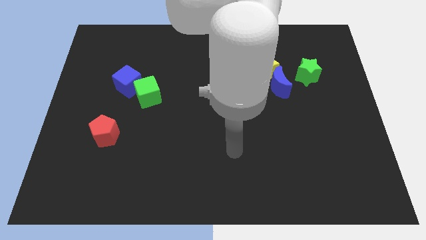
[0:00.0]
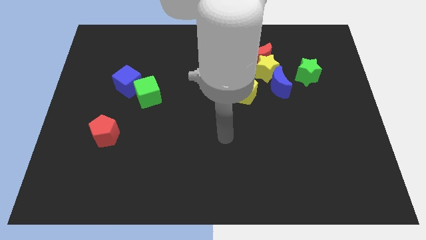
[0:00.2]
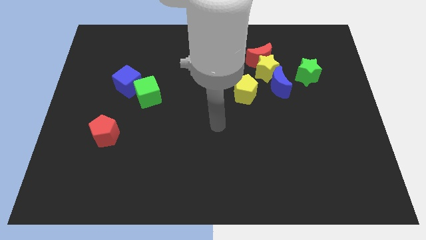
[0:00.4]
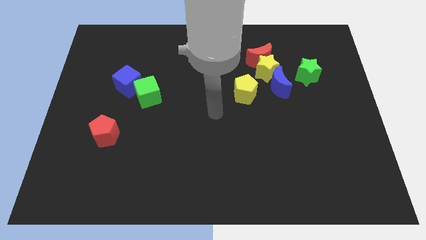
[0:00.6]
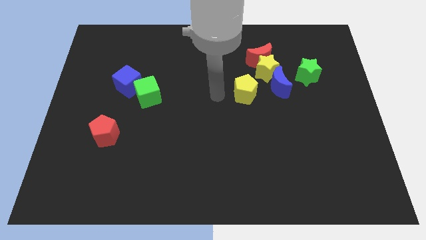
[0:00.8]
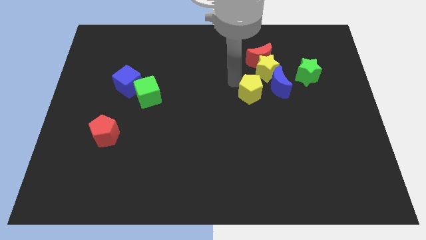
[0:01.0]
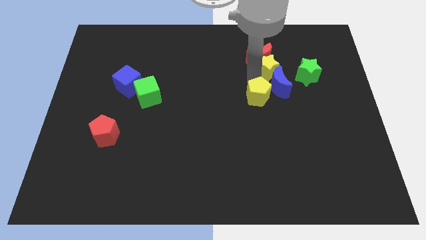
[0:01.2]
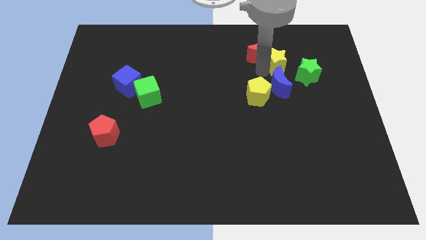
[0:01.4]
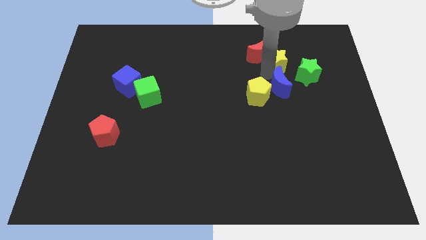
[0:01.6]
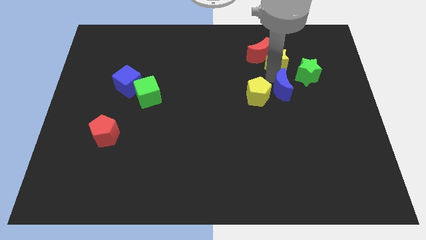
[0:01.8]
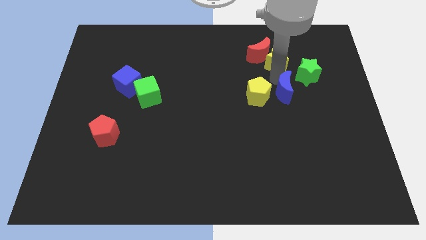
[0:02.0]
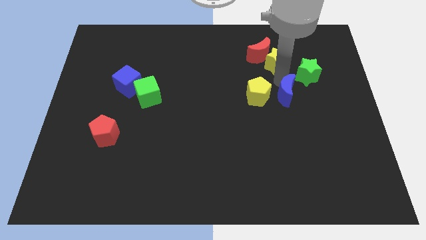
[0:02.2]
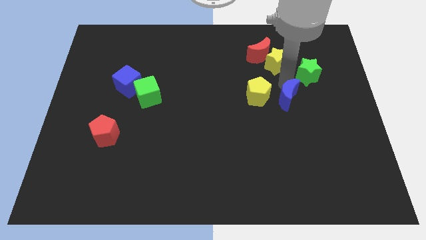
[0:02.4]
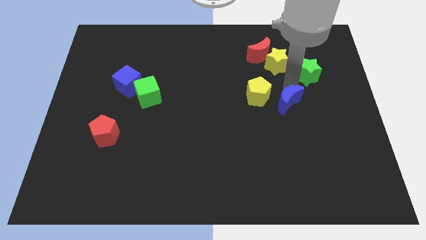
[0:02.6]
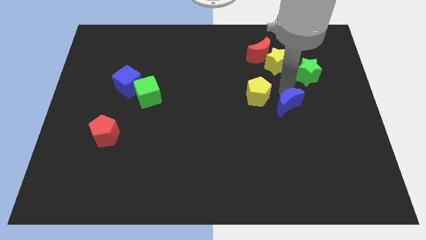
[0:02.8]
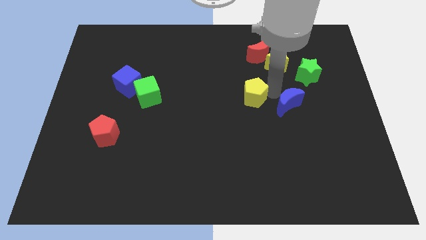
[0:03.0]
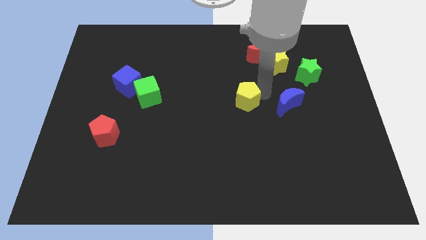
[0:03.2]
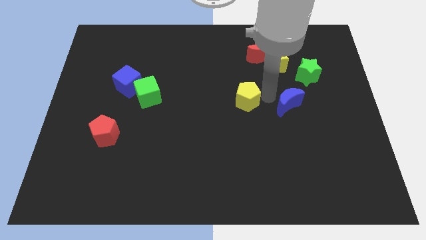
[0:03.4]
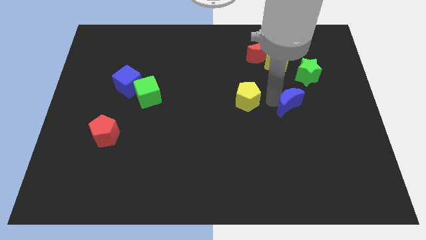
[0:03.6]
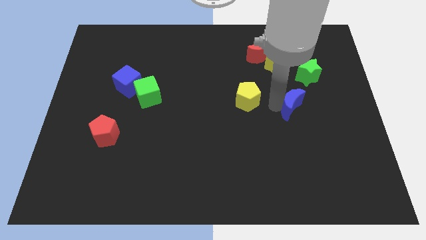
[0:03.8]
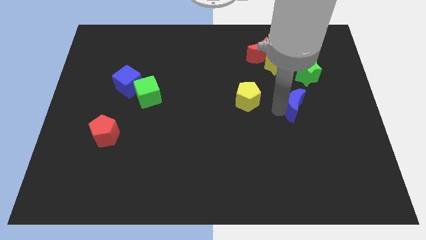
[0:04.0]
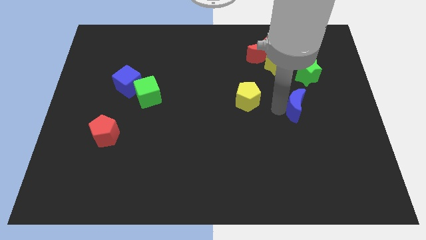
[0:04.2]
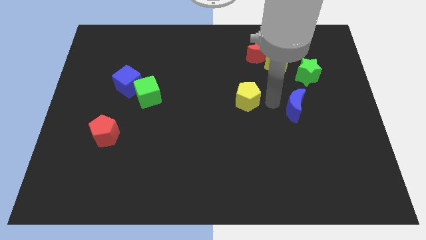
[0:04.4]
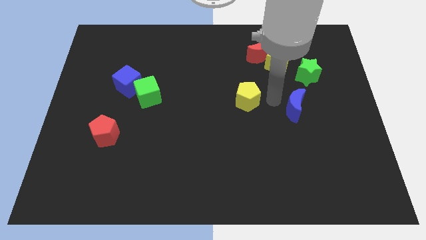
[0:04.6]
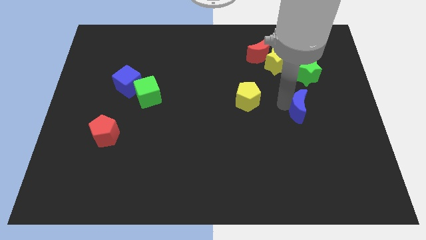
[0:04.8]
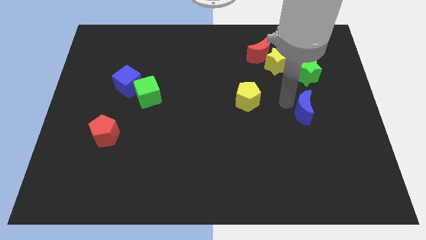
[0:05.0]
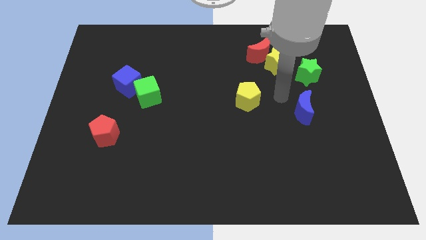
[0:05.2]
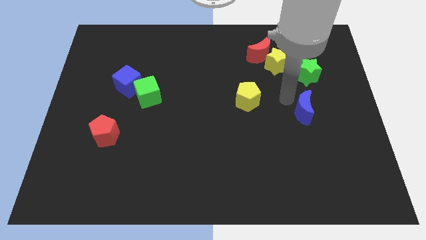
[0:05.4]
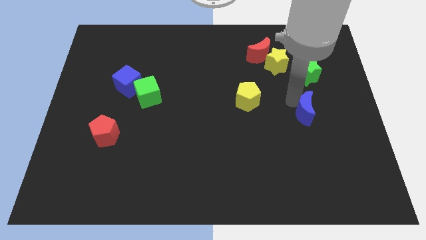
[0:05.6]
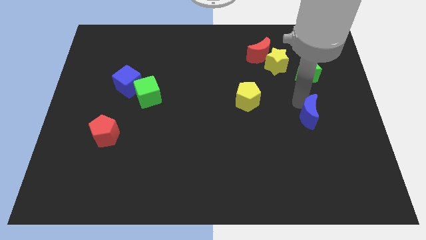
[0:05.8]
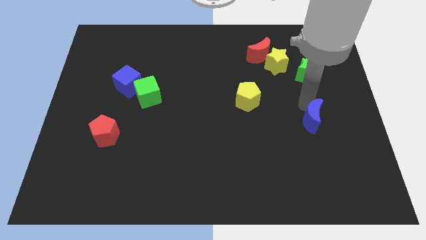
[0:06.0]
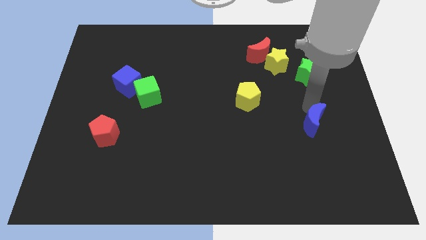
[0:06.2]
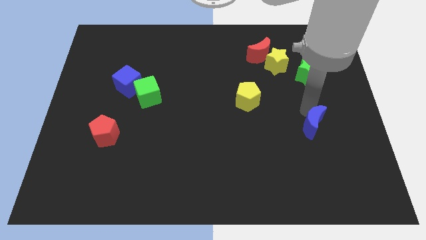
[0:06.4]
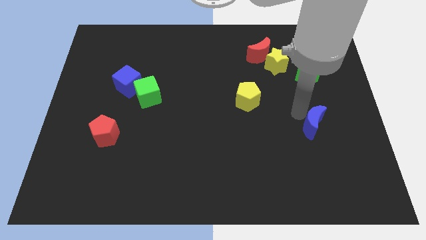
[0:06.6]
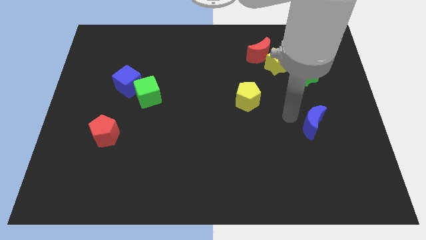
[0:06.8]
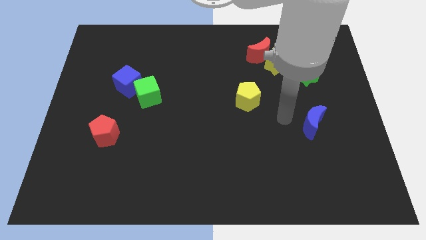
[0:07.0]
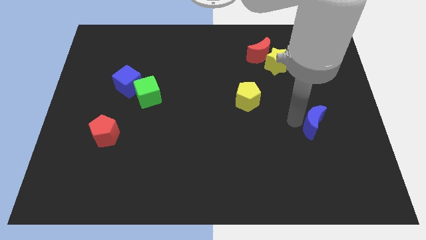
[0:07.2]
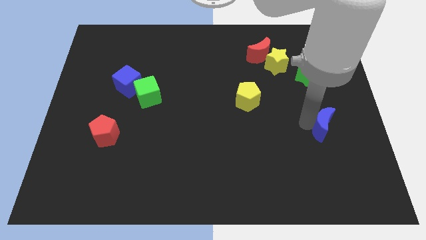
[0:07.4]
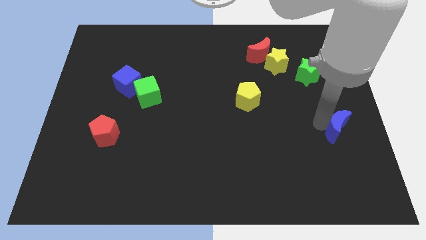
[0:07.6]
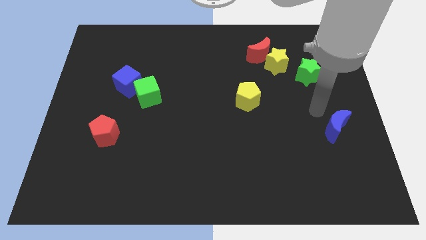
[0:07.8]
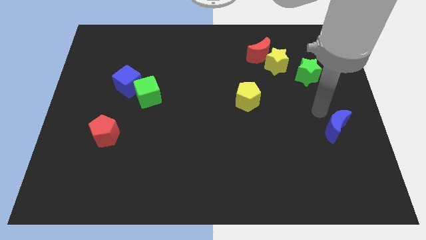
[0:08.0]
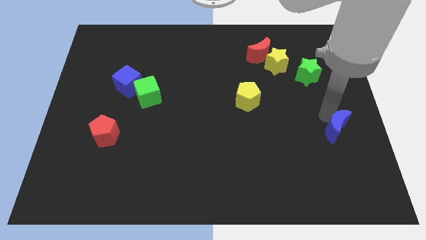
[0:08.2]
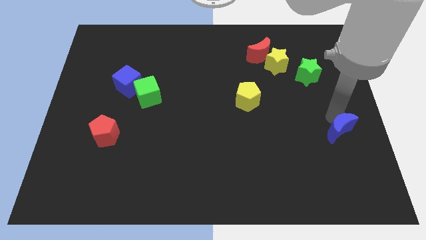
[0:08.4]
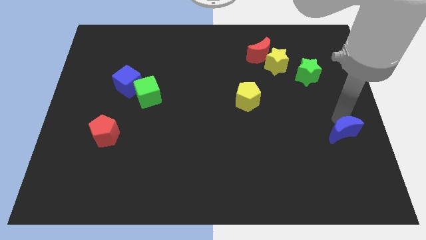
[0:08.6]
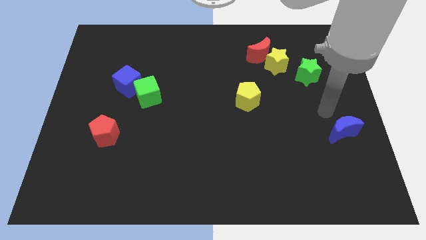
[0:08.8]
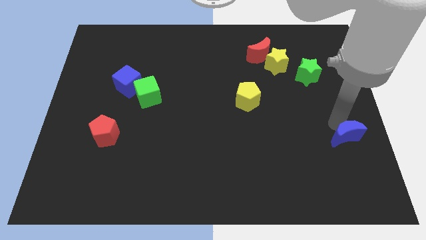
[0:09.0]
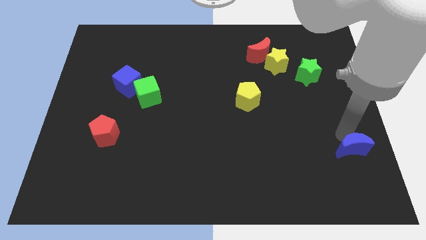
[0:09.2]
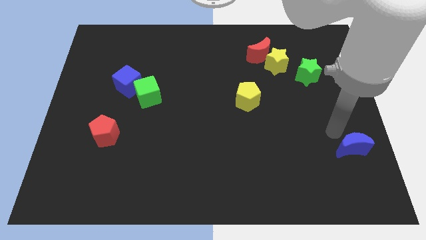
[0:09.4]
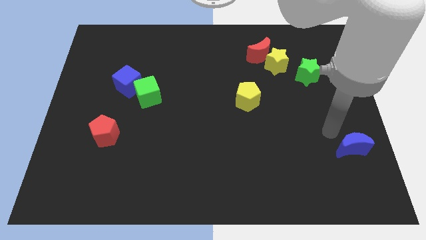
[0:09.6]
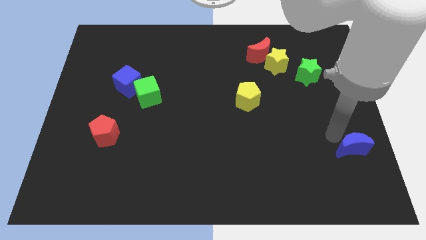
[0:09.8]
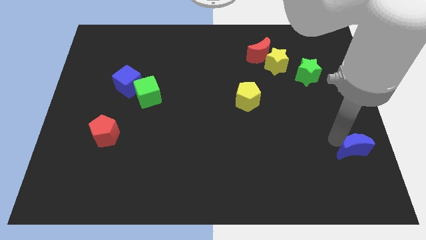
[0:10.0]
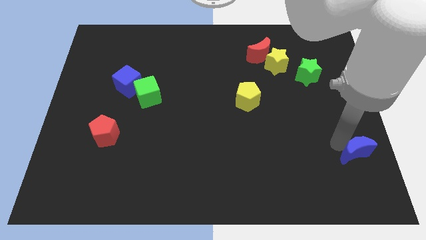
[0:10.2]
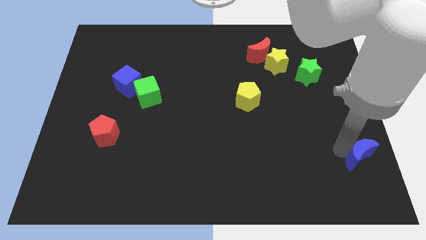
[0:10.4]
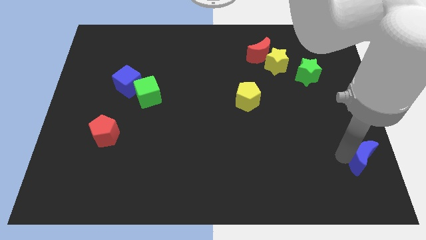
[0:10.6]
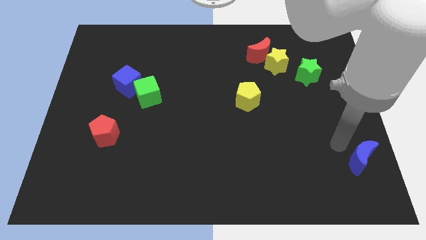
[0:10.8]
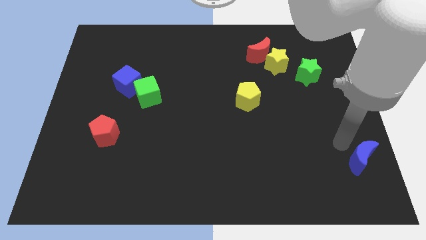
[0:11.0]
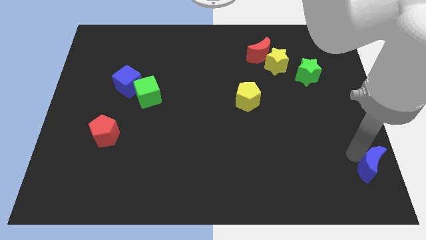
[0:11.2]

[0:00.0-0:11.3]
slide the blue moon to the lower right corner
